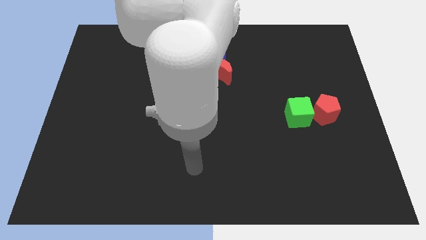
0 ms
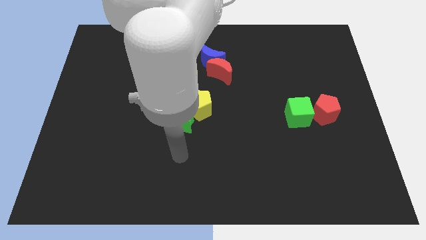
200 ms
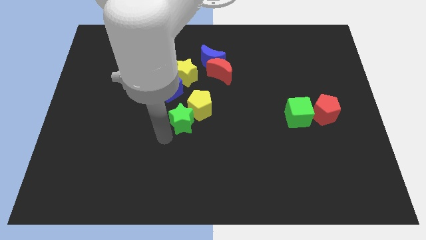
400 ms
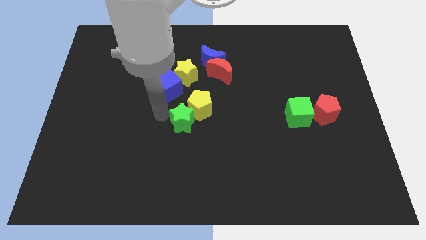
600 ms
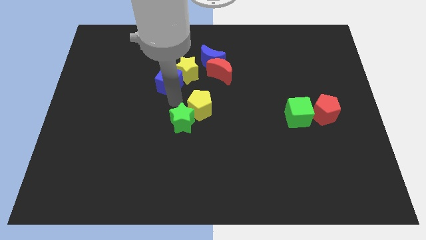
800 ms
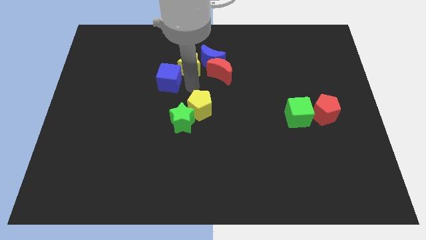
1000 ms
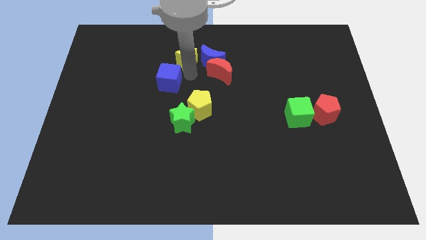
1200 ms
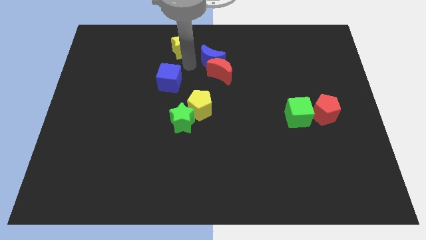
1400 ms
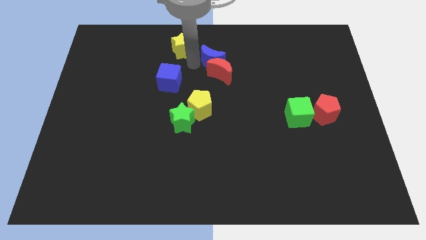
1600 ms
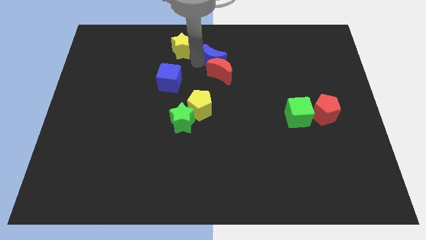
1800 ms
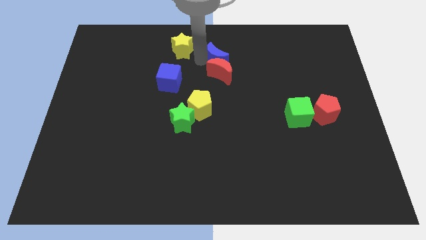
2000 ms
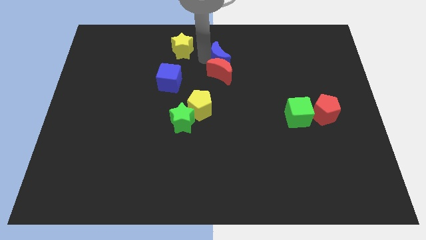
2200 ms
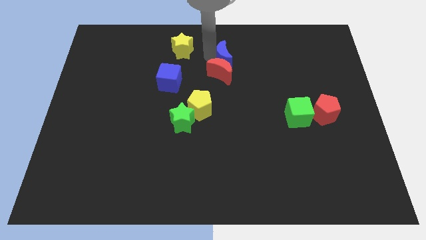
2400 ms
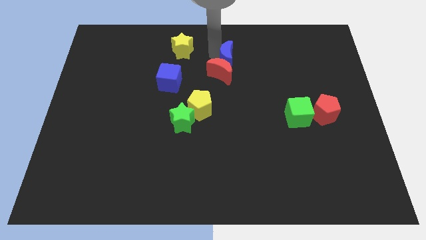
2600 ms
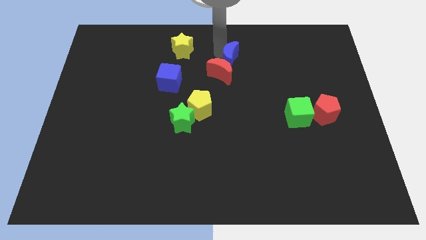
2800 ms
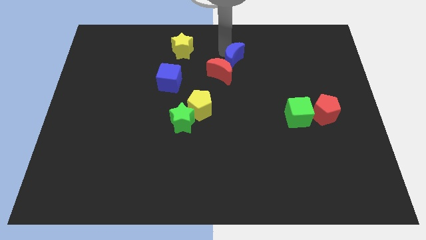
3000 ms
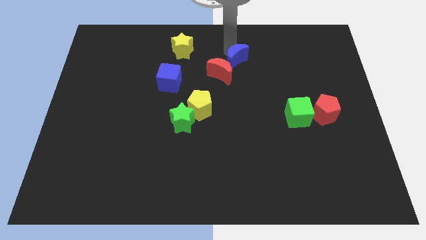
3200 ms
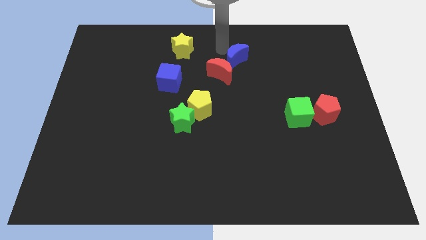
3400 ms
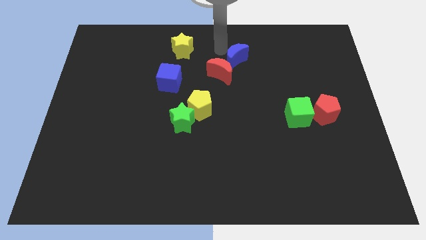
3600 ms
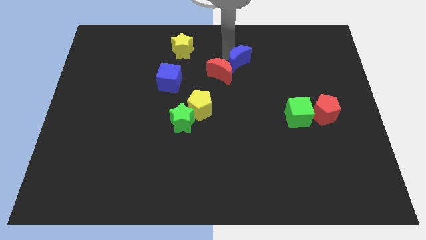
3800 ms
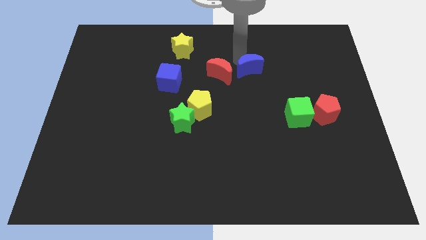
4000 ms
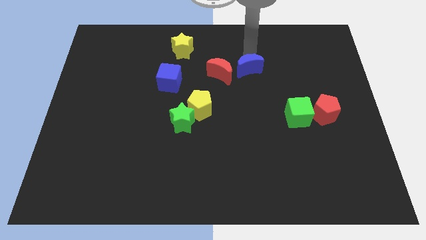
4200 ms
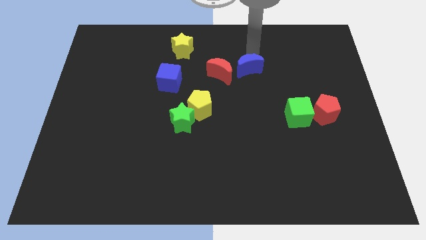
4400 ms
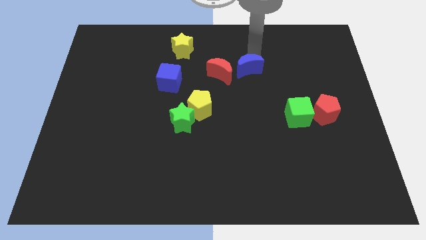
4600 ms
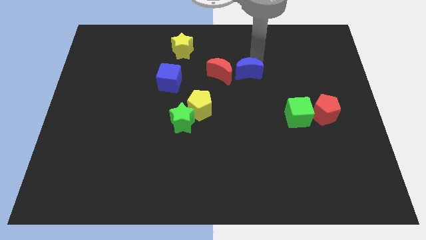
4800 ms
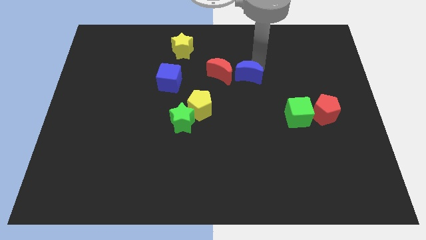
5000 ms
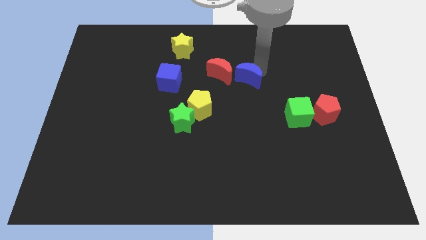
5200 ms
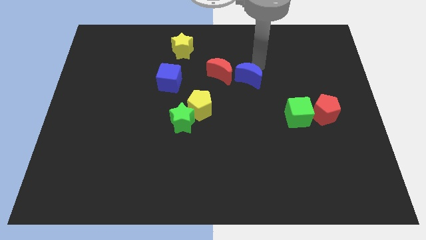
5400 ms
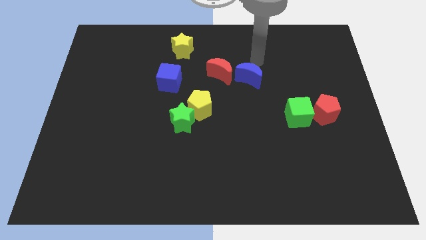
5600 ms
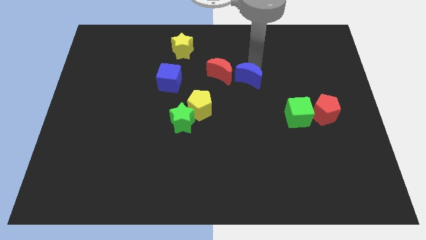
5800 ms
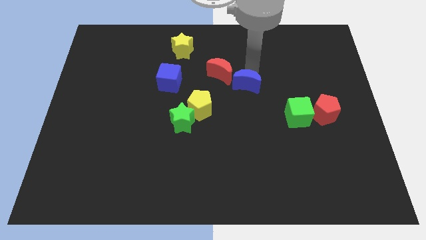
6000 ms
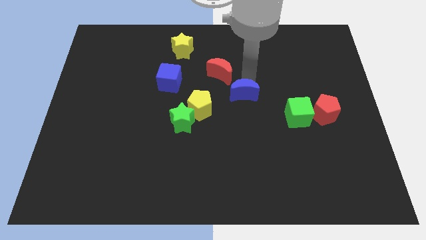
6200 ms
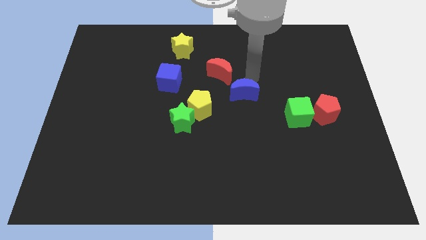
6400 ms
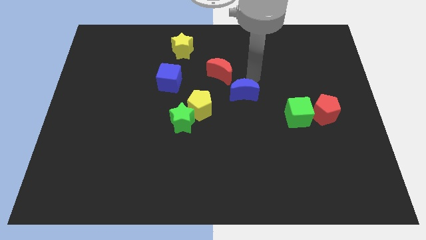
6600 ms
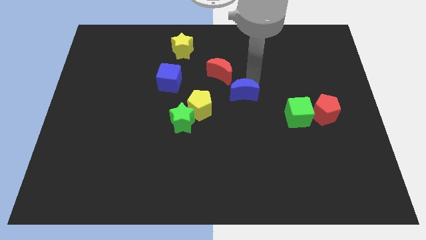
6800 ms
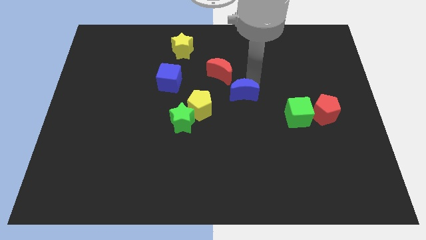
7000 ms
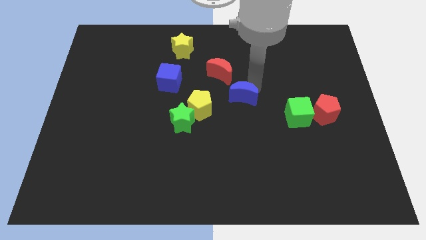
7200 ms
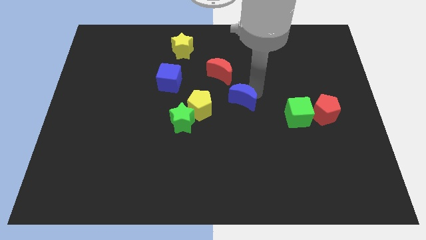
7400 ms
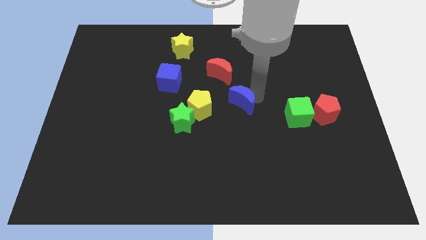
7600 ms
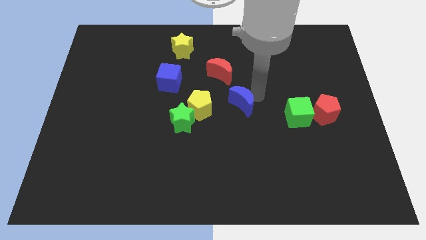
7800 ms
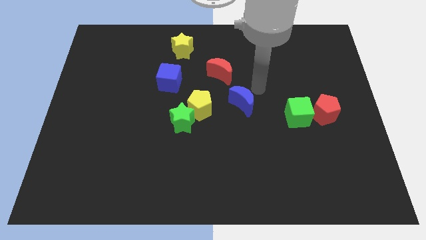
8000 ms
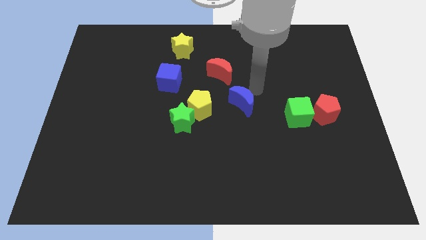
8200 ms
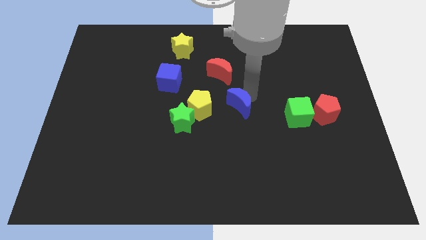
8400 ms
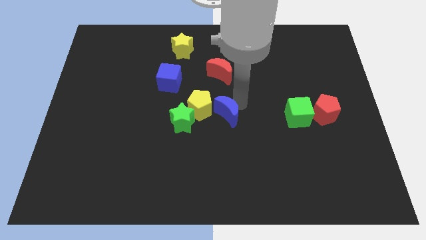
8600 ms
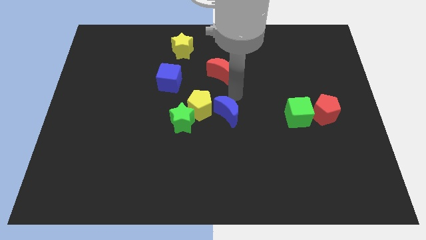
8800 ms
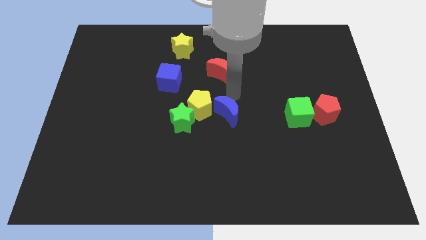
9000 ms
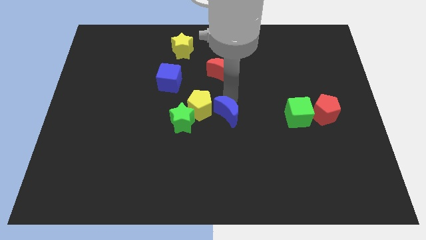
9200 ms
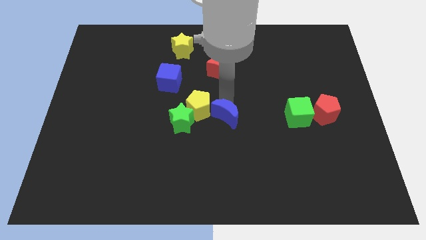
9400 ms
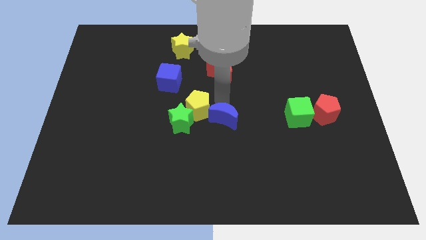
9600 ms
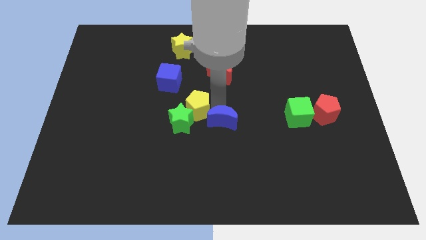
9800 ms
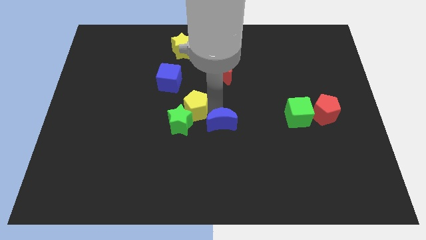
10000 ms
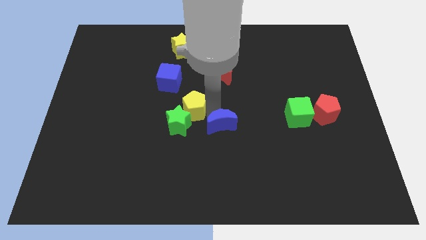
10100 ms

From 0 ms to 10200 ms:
push the blue moon down

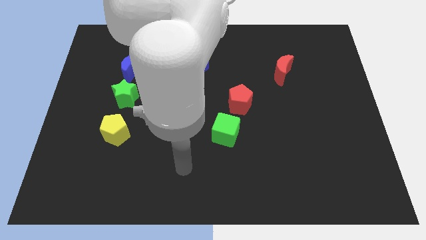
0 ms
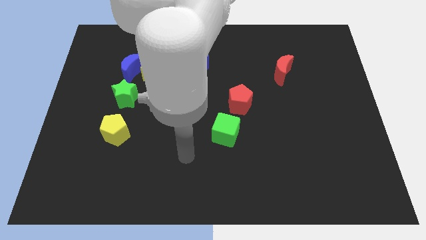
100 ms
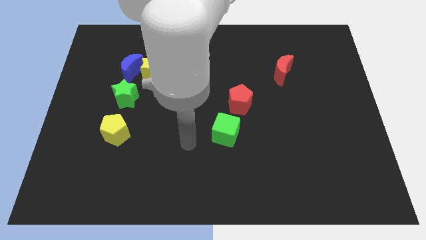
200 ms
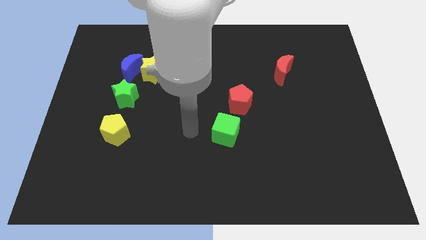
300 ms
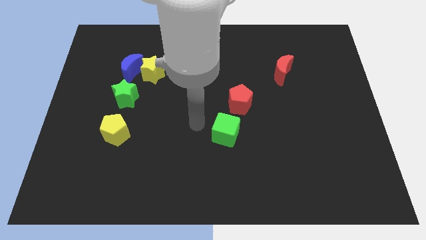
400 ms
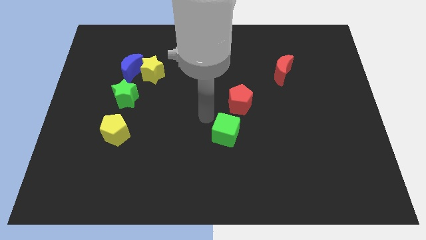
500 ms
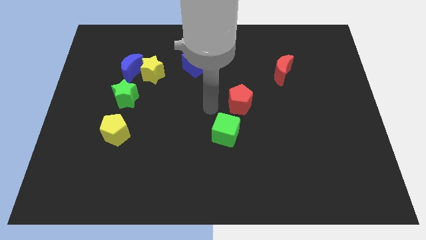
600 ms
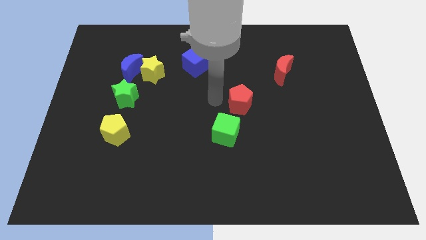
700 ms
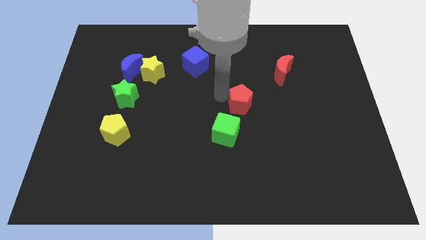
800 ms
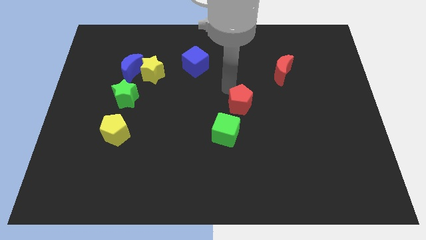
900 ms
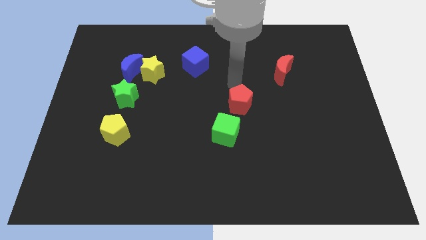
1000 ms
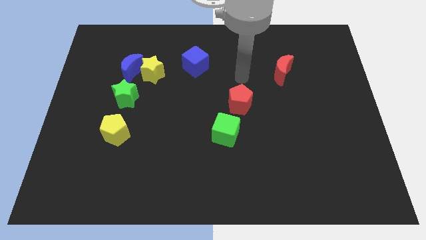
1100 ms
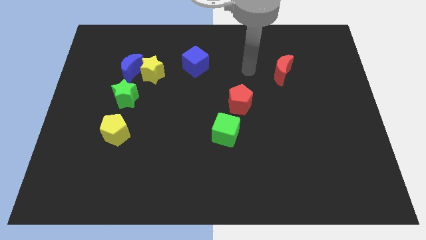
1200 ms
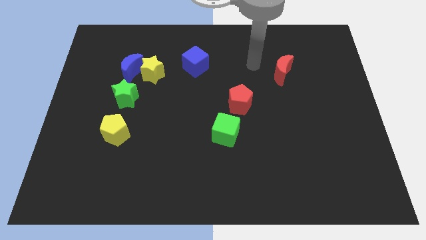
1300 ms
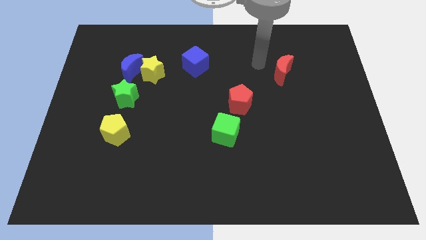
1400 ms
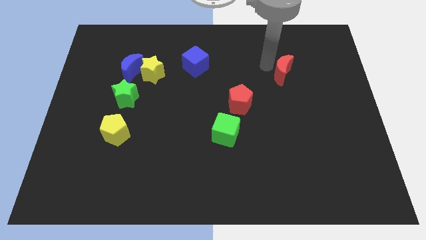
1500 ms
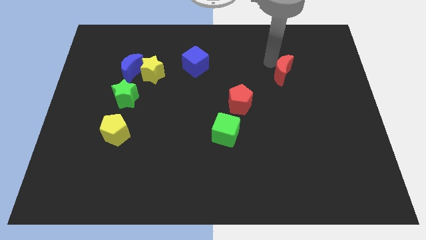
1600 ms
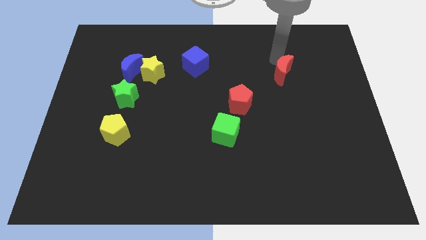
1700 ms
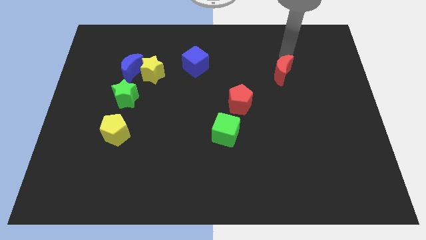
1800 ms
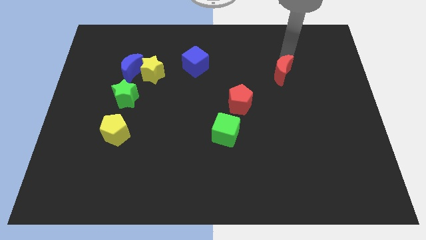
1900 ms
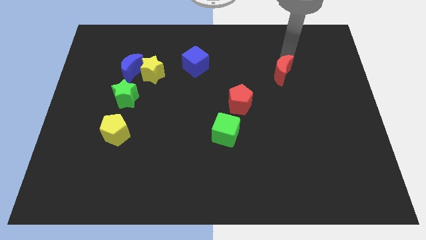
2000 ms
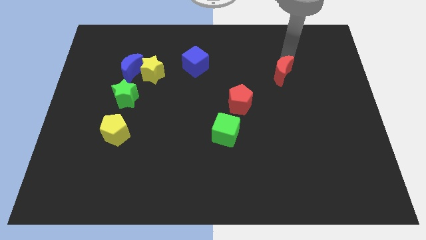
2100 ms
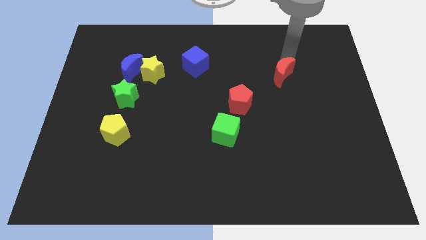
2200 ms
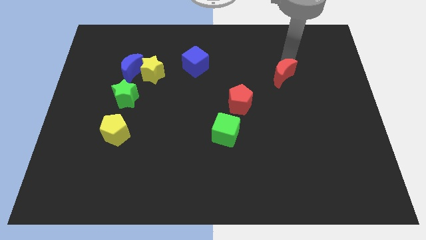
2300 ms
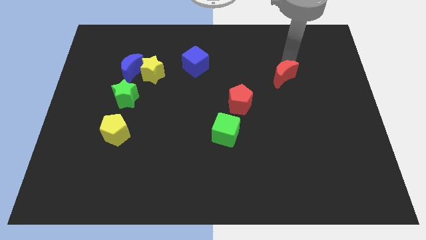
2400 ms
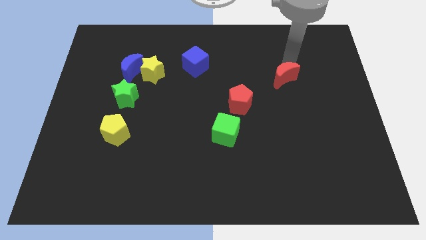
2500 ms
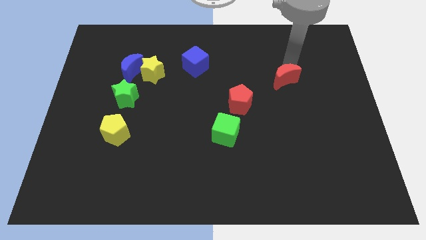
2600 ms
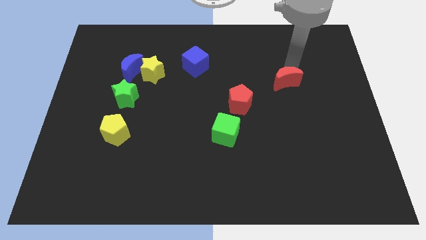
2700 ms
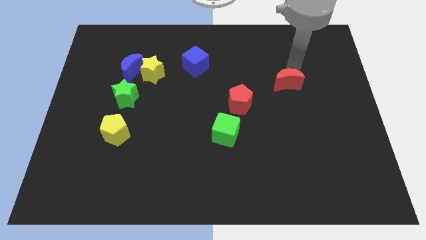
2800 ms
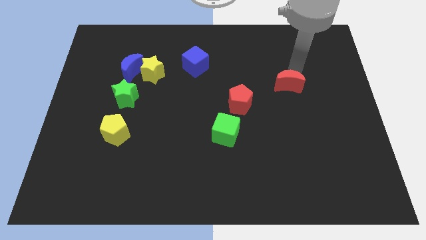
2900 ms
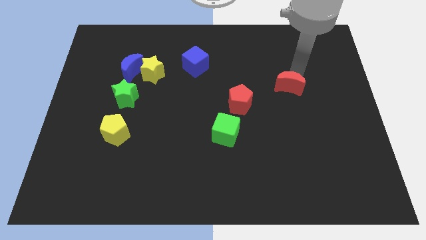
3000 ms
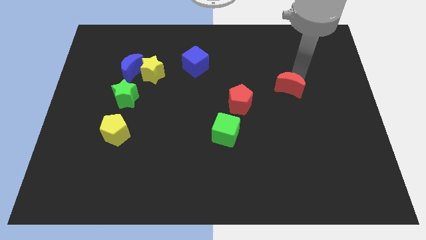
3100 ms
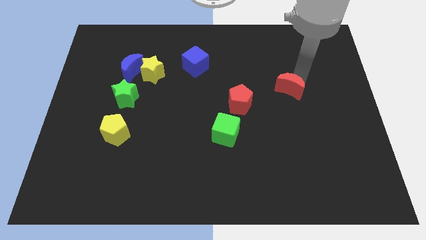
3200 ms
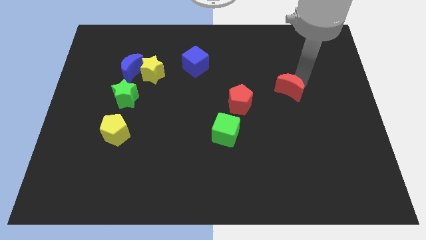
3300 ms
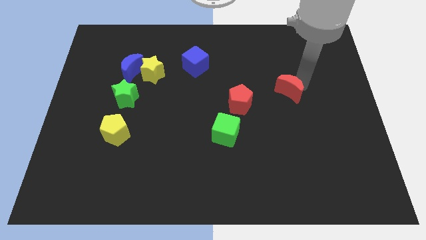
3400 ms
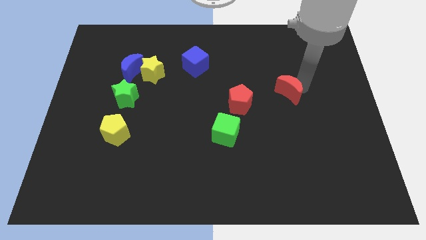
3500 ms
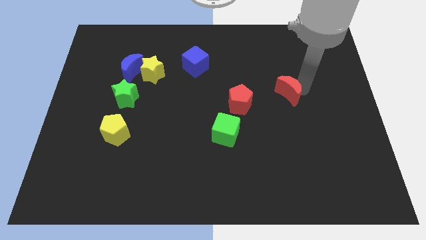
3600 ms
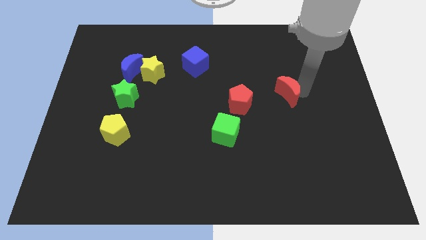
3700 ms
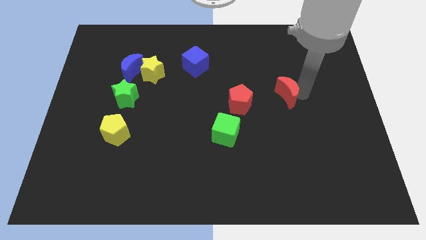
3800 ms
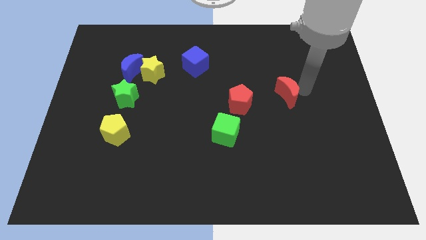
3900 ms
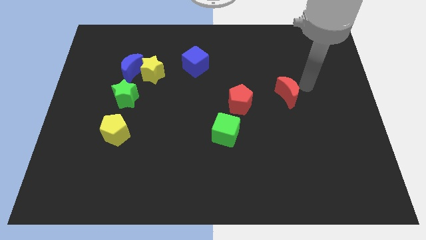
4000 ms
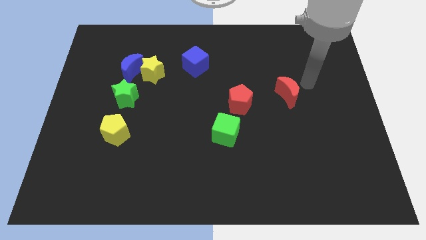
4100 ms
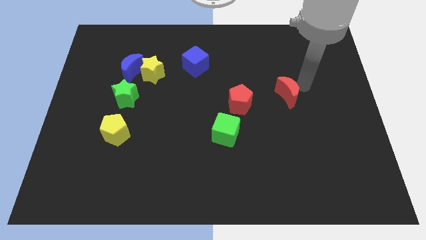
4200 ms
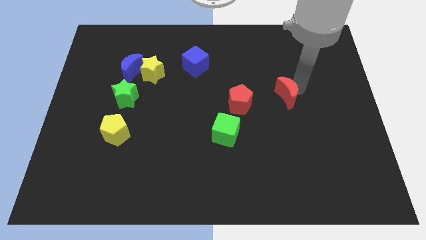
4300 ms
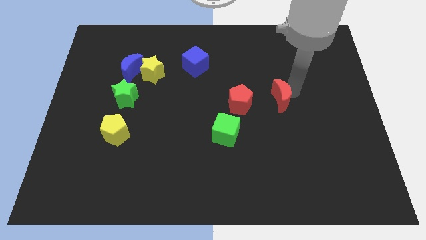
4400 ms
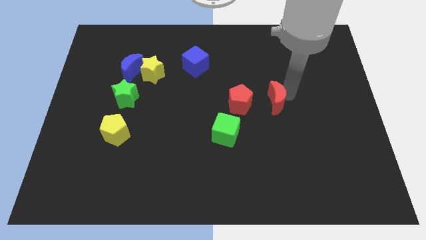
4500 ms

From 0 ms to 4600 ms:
move the red moon downwards and left diagonally somewhat
